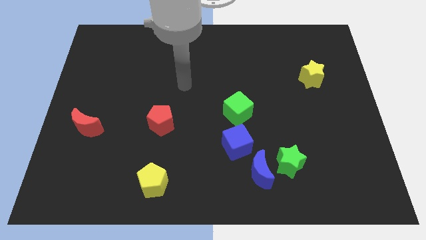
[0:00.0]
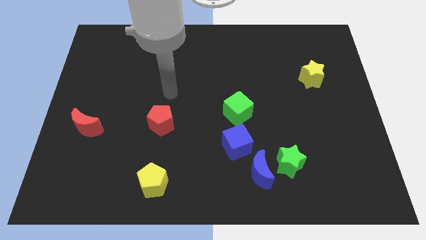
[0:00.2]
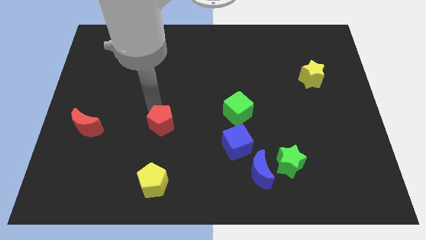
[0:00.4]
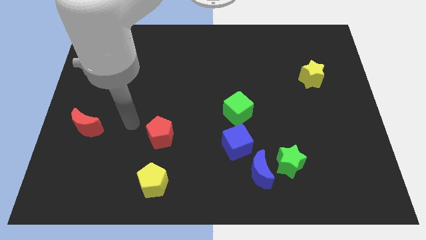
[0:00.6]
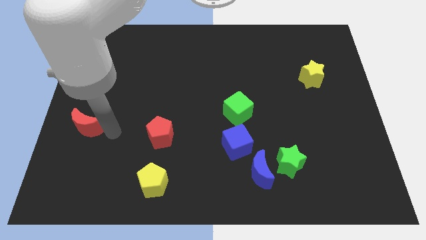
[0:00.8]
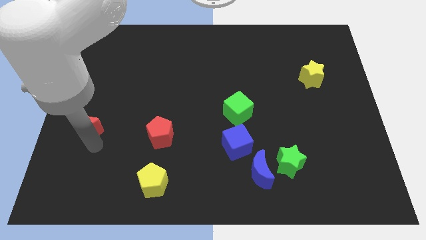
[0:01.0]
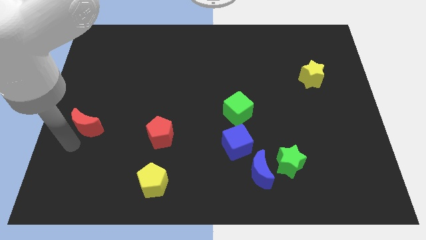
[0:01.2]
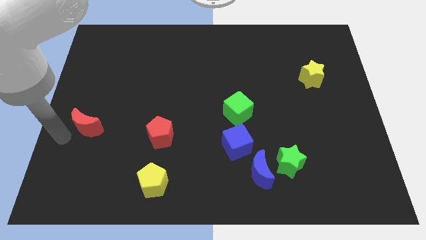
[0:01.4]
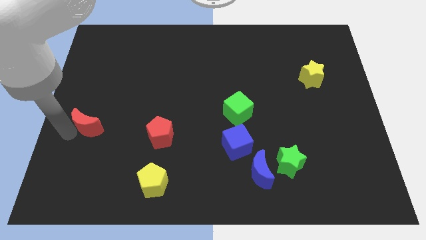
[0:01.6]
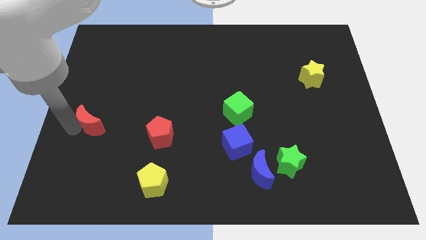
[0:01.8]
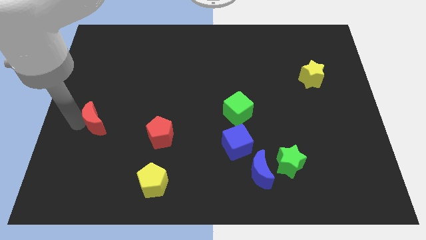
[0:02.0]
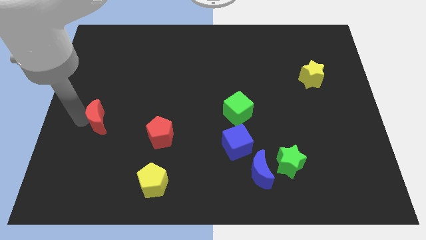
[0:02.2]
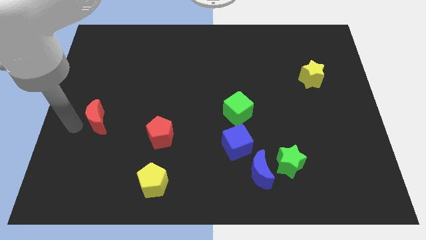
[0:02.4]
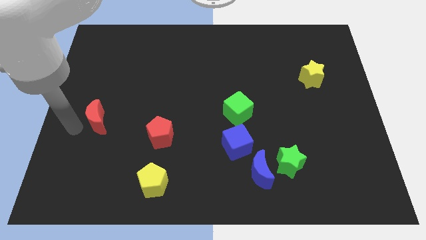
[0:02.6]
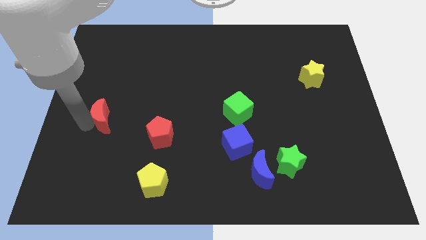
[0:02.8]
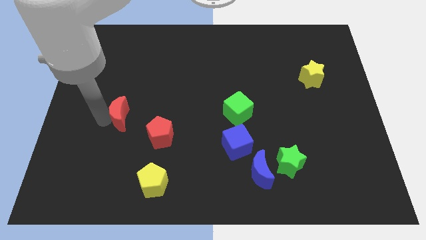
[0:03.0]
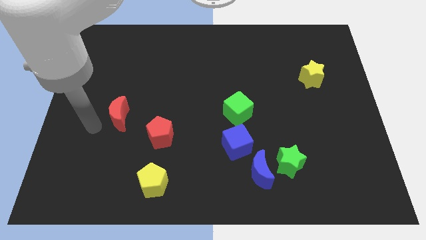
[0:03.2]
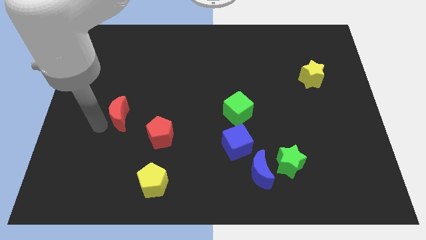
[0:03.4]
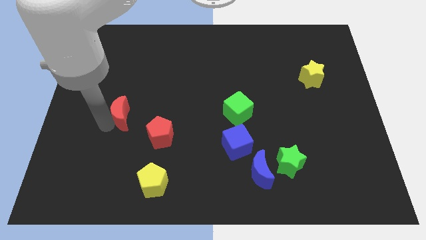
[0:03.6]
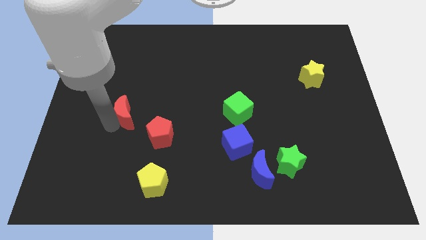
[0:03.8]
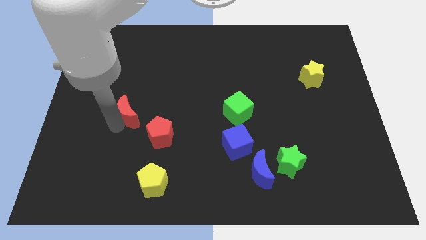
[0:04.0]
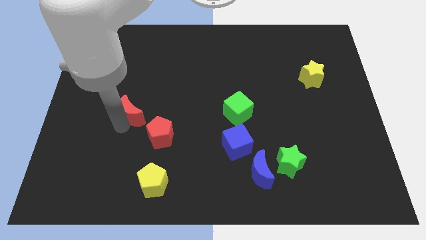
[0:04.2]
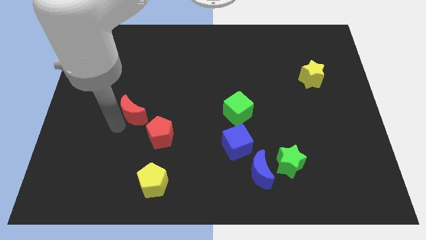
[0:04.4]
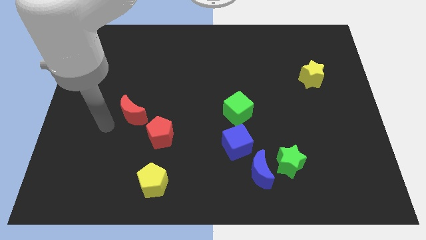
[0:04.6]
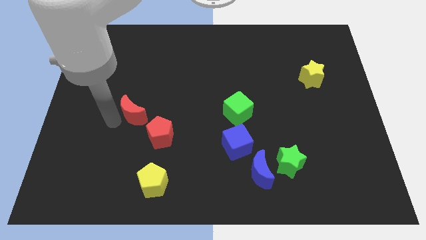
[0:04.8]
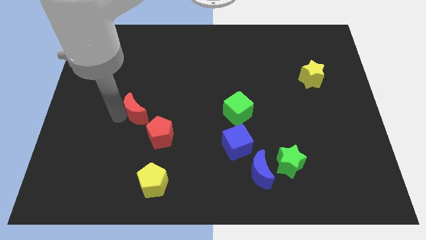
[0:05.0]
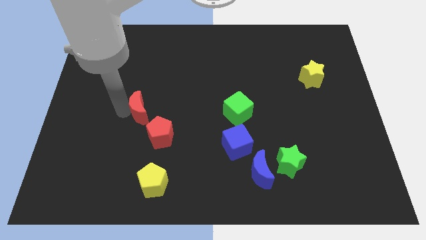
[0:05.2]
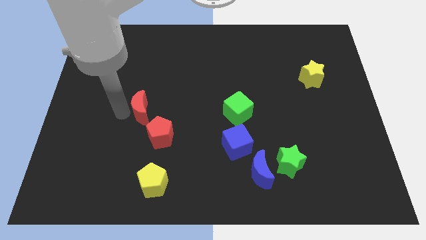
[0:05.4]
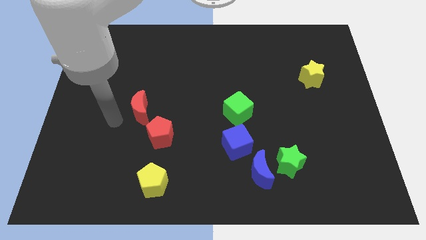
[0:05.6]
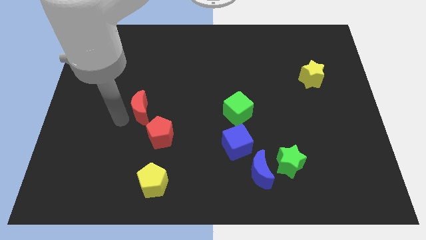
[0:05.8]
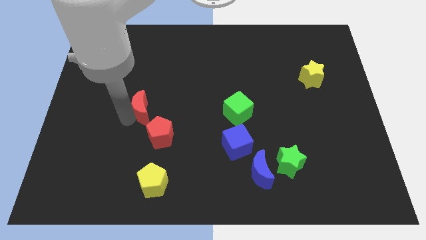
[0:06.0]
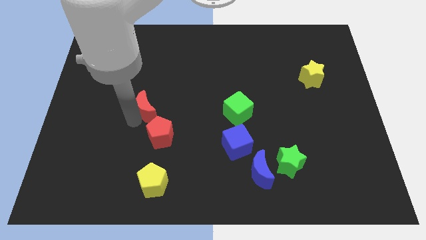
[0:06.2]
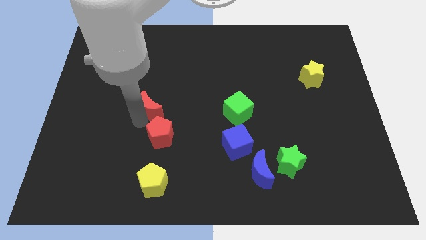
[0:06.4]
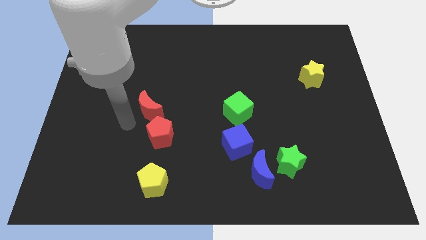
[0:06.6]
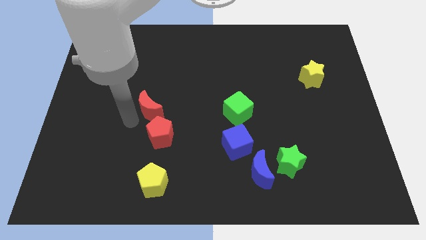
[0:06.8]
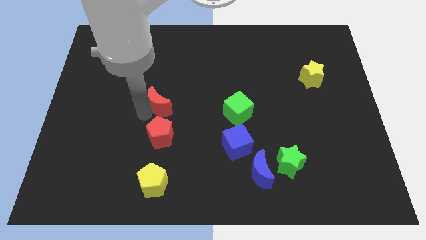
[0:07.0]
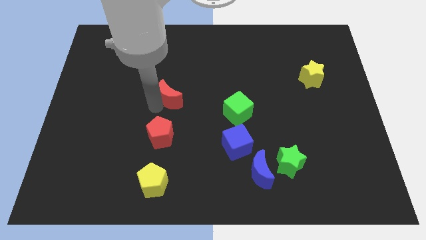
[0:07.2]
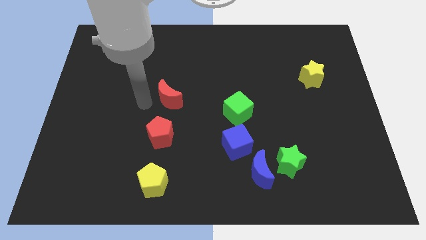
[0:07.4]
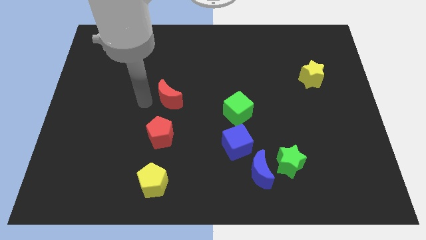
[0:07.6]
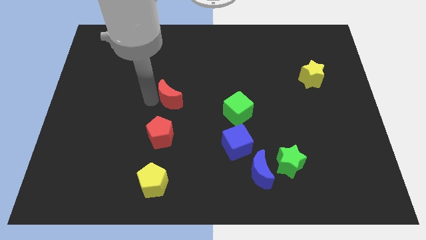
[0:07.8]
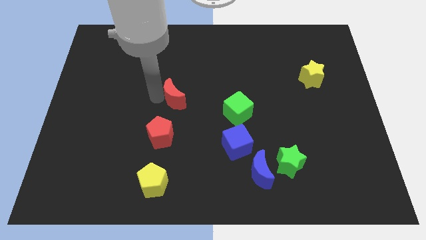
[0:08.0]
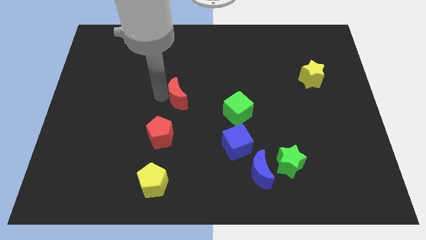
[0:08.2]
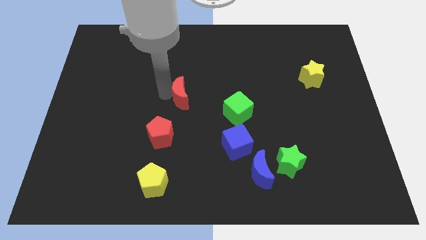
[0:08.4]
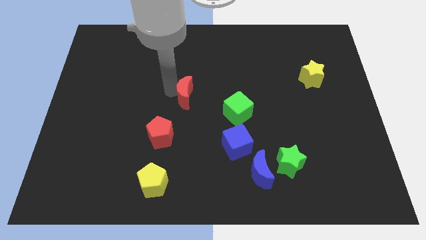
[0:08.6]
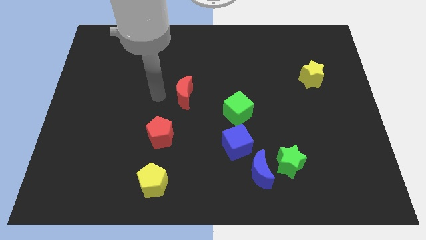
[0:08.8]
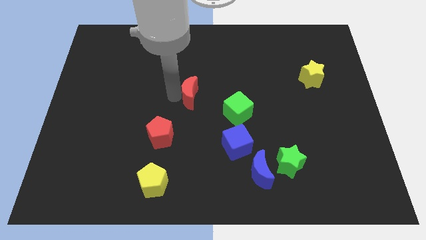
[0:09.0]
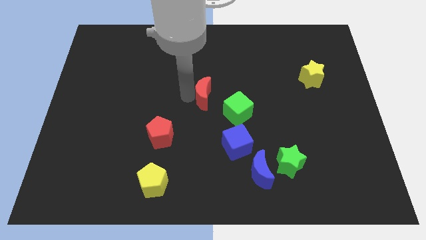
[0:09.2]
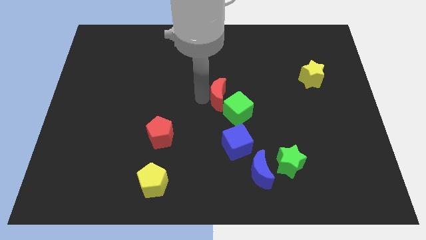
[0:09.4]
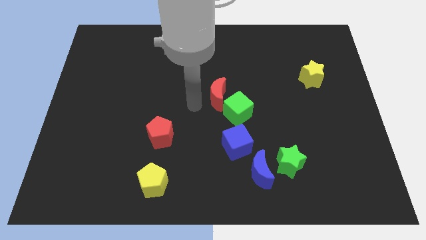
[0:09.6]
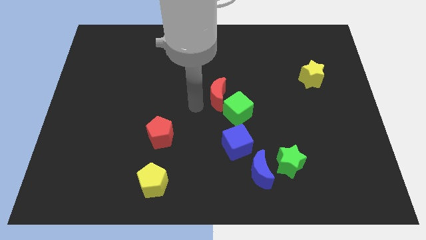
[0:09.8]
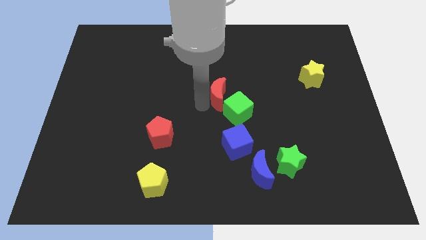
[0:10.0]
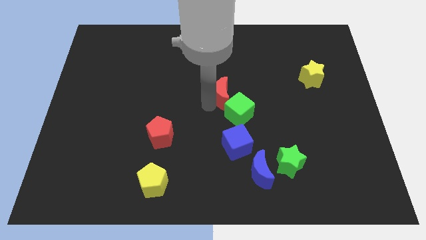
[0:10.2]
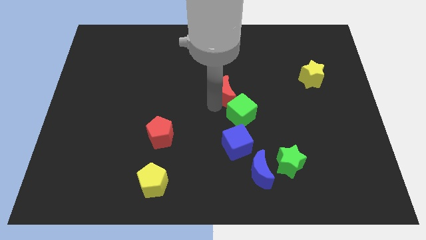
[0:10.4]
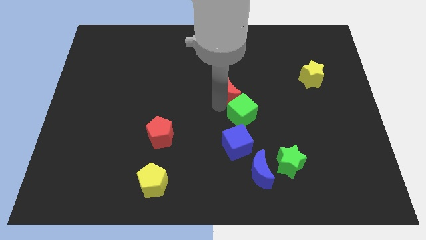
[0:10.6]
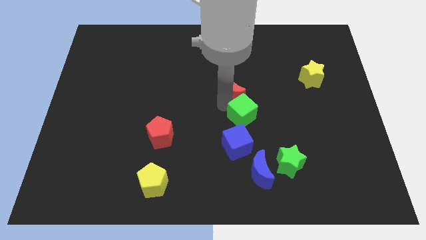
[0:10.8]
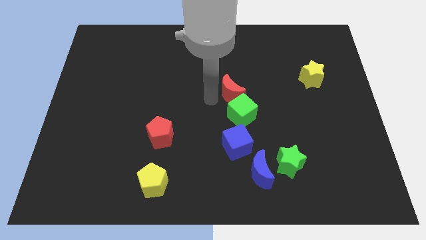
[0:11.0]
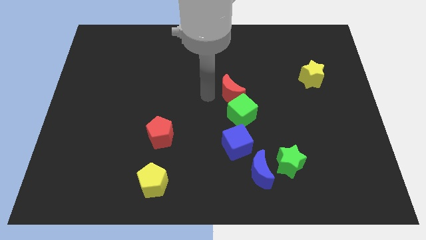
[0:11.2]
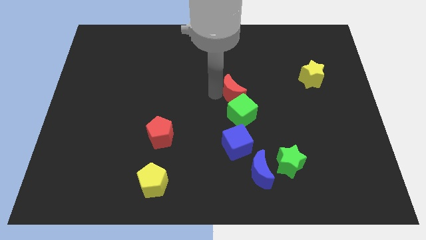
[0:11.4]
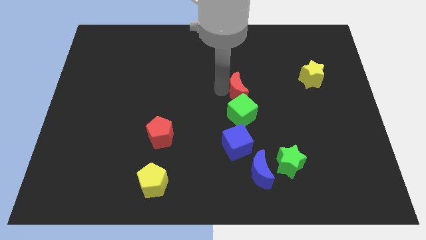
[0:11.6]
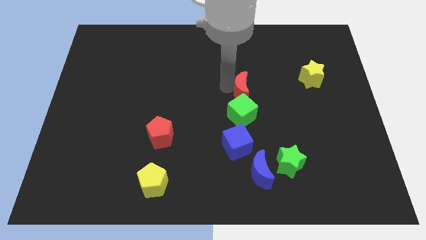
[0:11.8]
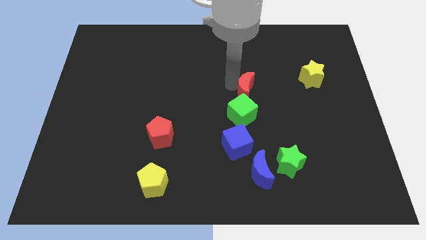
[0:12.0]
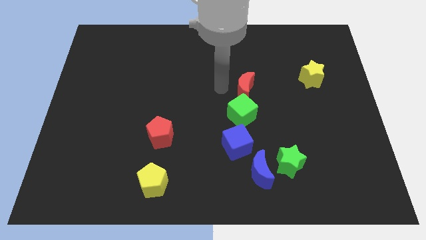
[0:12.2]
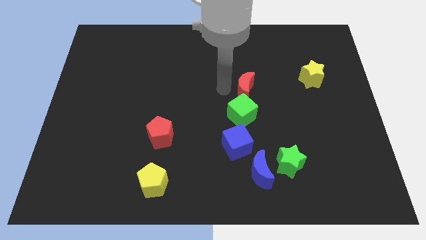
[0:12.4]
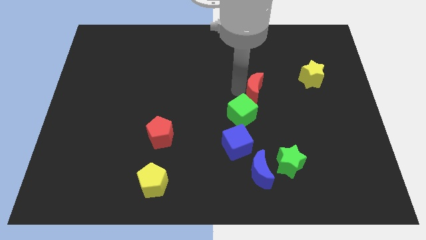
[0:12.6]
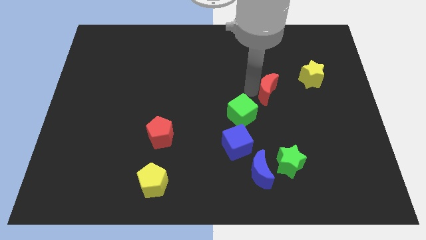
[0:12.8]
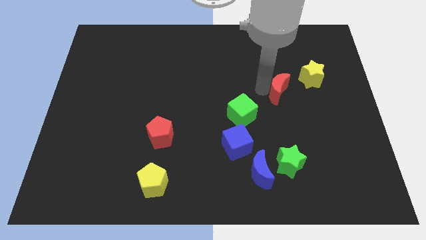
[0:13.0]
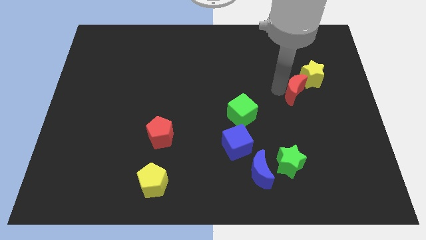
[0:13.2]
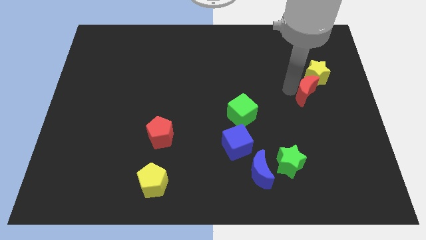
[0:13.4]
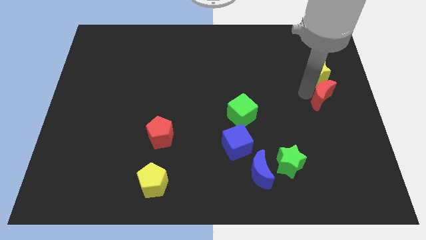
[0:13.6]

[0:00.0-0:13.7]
slide the red moon to the right side

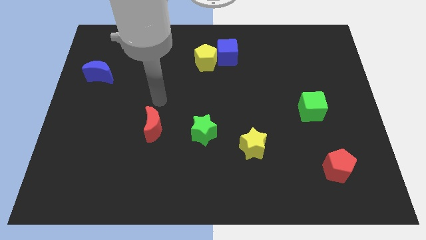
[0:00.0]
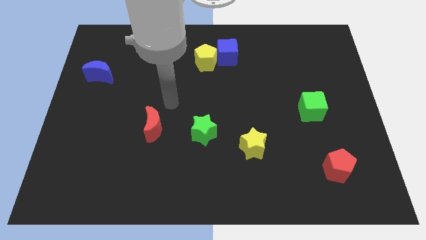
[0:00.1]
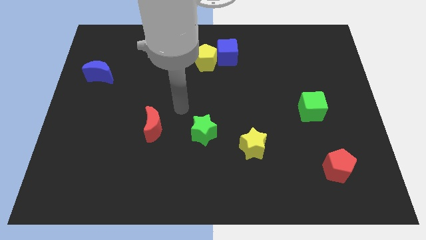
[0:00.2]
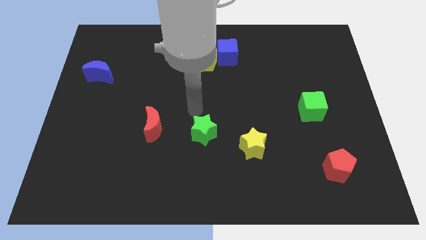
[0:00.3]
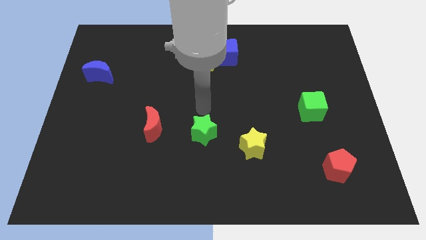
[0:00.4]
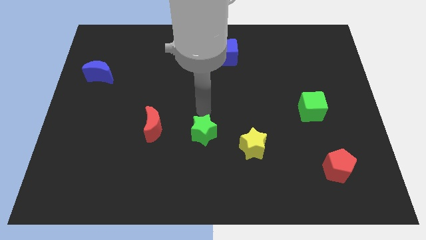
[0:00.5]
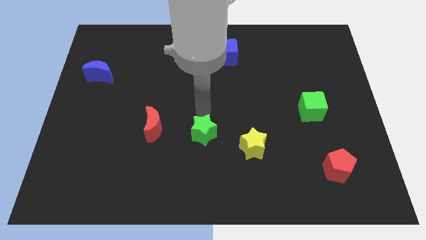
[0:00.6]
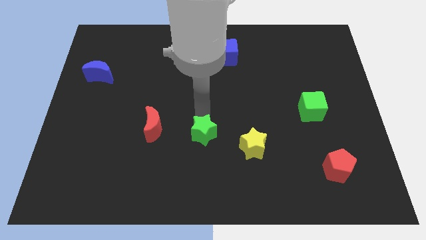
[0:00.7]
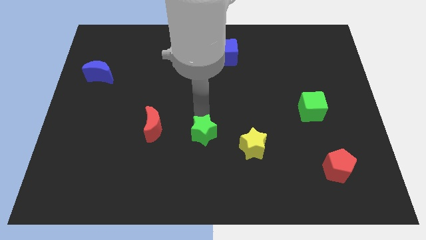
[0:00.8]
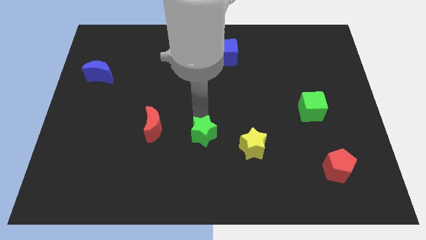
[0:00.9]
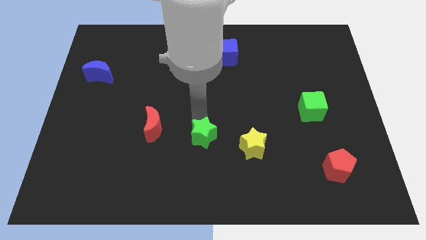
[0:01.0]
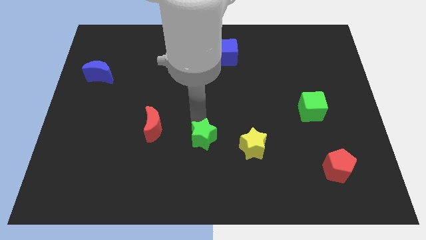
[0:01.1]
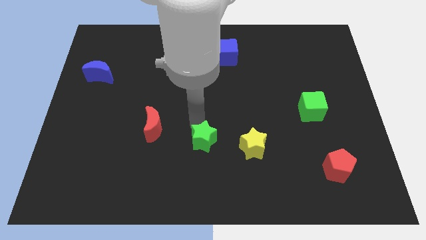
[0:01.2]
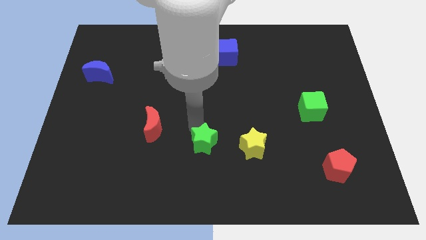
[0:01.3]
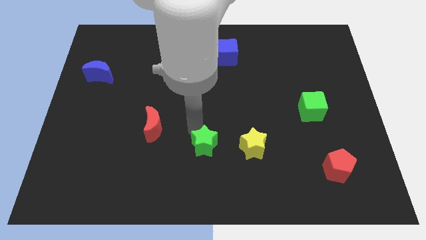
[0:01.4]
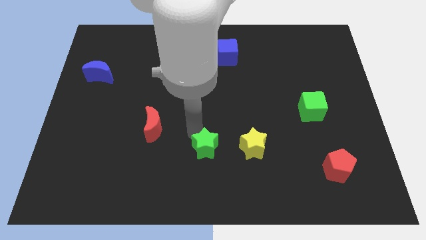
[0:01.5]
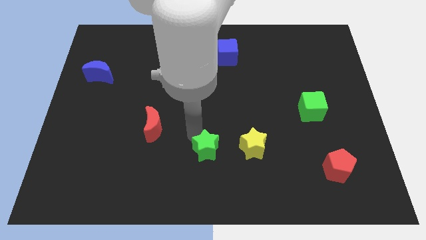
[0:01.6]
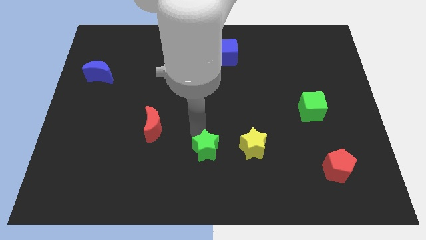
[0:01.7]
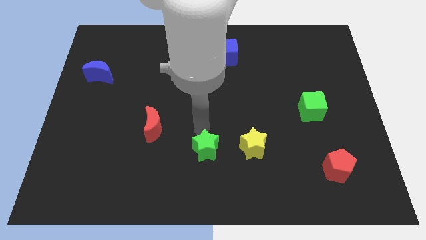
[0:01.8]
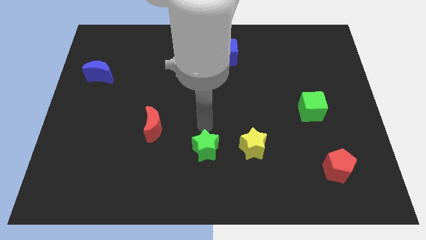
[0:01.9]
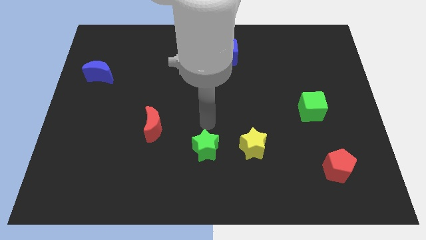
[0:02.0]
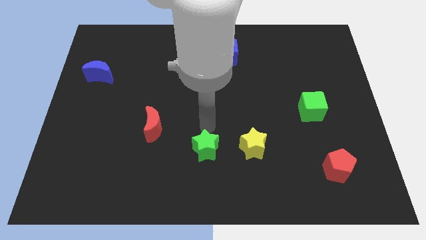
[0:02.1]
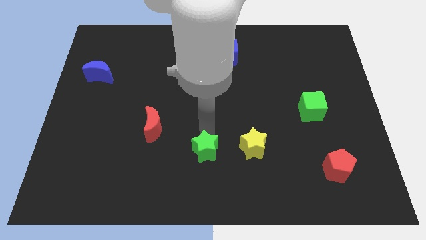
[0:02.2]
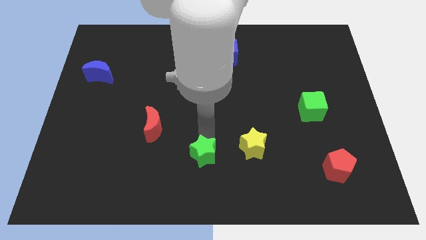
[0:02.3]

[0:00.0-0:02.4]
push the green star to the bottom
